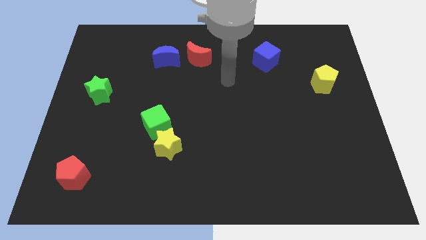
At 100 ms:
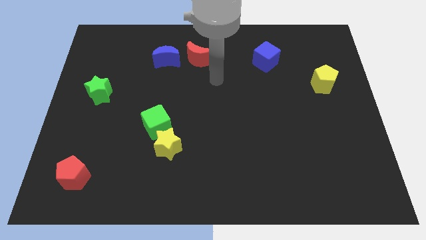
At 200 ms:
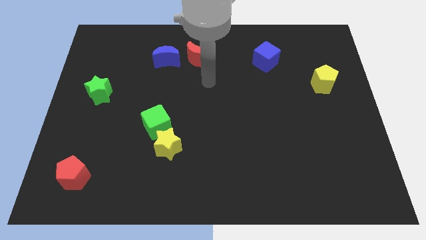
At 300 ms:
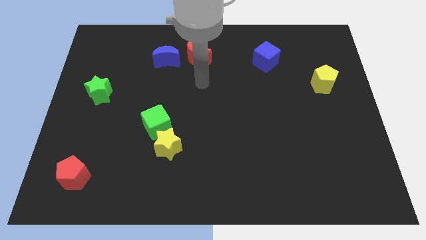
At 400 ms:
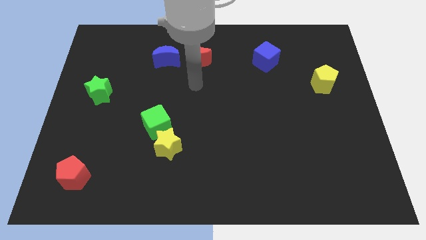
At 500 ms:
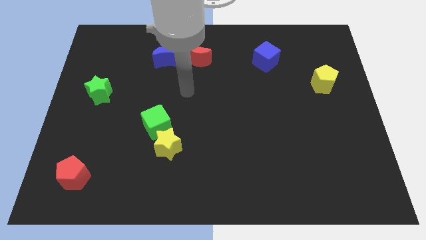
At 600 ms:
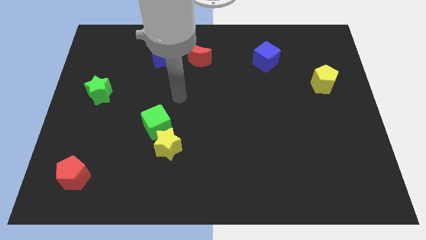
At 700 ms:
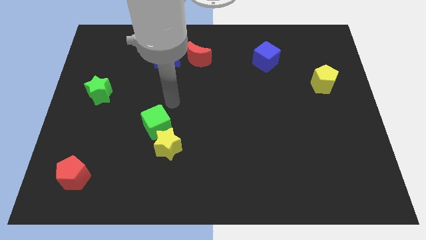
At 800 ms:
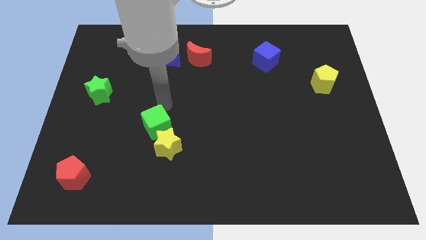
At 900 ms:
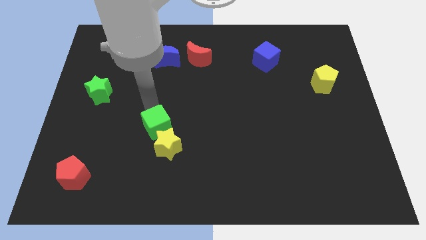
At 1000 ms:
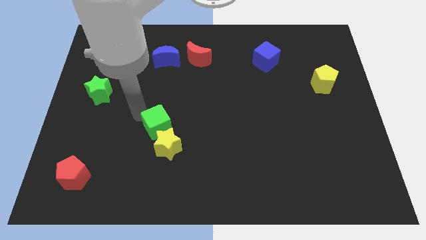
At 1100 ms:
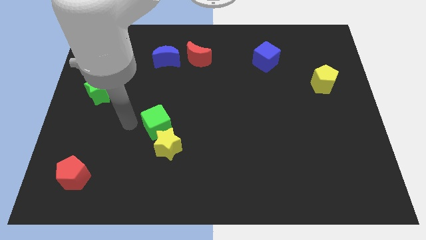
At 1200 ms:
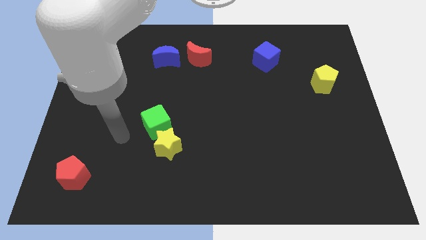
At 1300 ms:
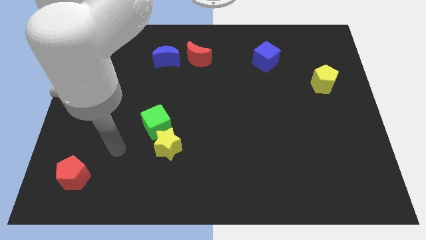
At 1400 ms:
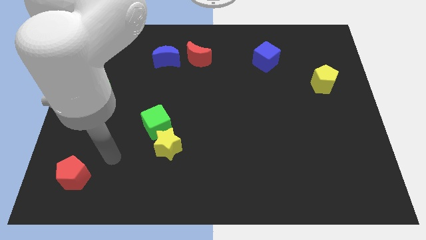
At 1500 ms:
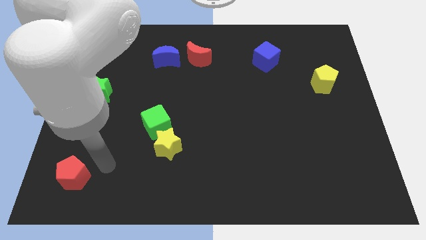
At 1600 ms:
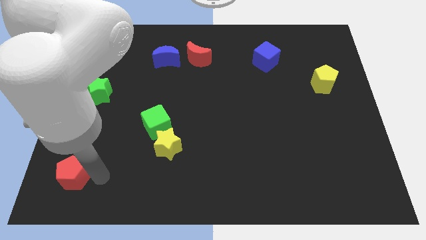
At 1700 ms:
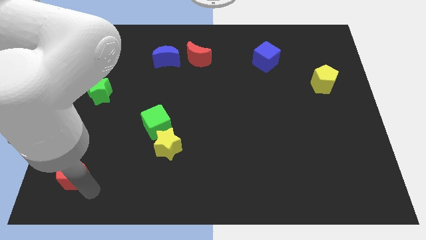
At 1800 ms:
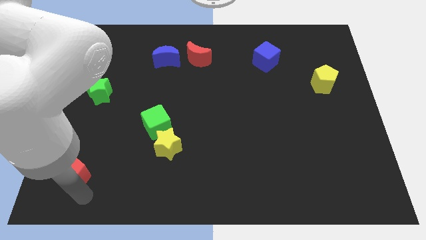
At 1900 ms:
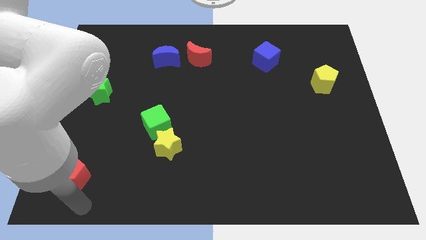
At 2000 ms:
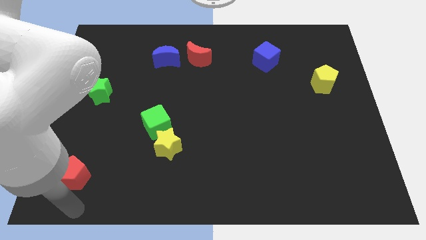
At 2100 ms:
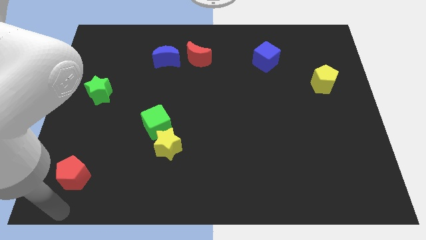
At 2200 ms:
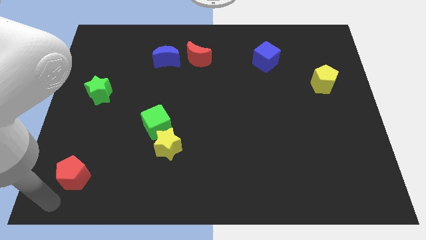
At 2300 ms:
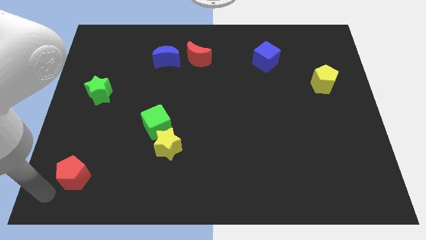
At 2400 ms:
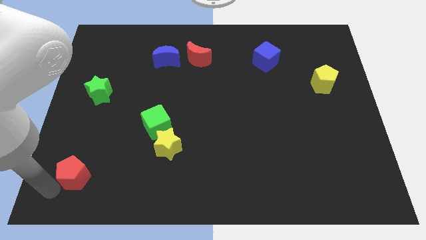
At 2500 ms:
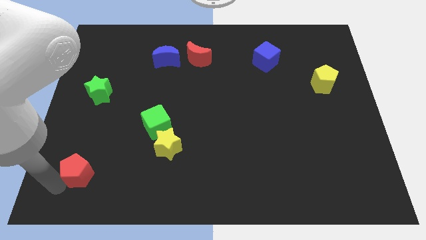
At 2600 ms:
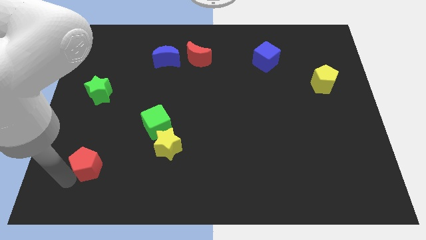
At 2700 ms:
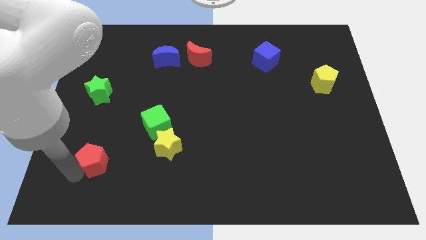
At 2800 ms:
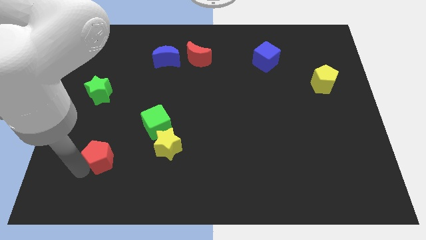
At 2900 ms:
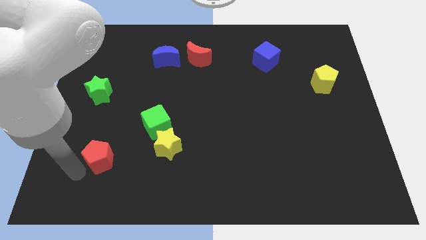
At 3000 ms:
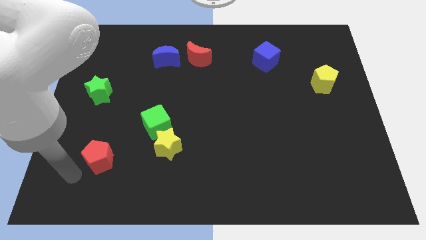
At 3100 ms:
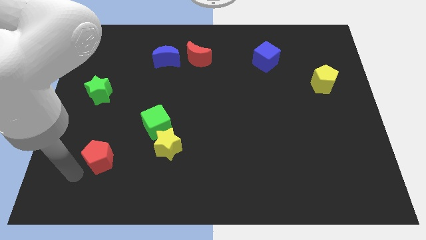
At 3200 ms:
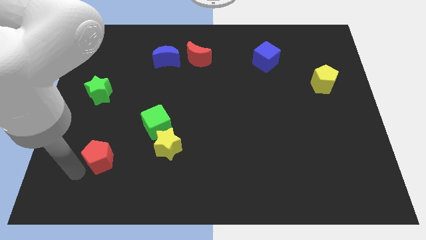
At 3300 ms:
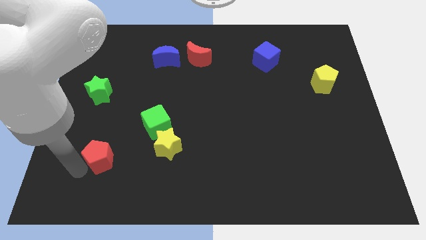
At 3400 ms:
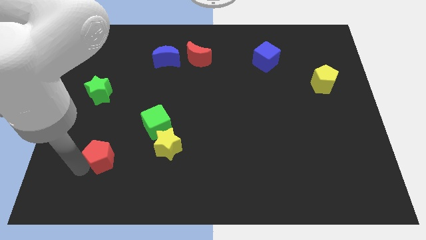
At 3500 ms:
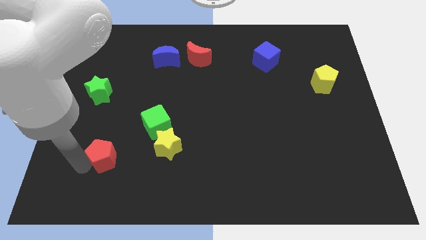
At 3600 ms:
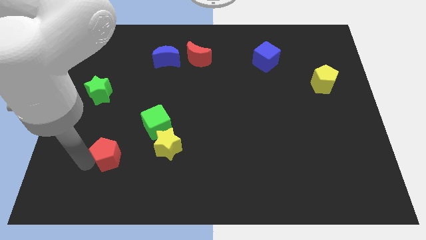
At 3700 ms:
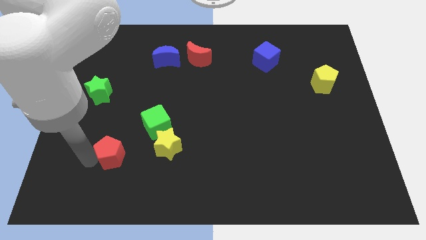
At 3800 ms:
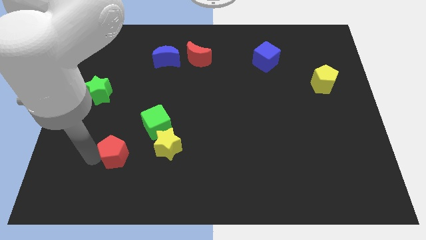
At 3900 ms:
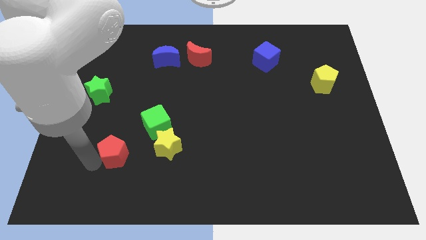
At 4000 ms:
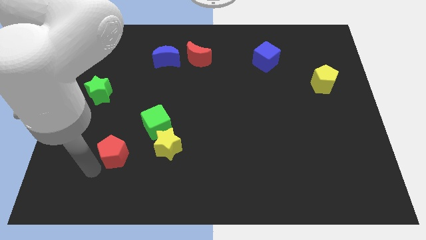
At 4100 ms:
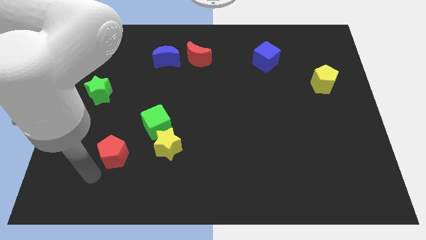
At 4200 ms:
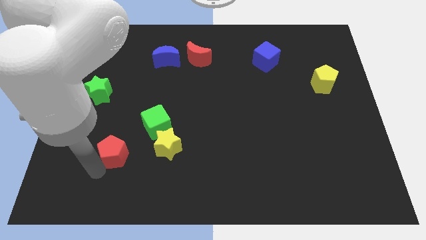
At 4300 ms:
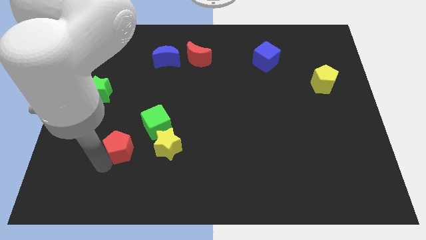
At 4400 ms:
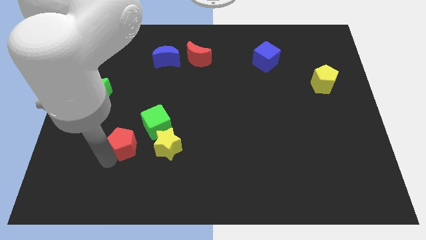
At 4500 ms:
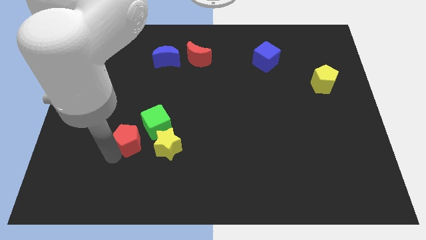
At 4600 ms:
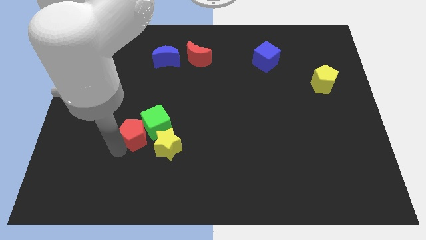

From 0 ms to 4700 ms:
slide the red pentagon next to the green cube

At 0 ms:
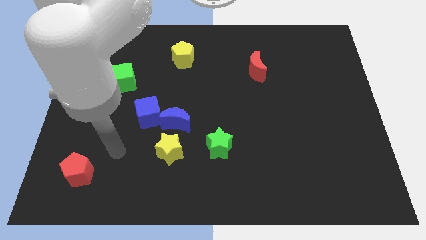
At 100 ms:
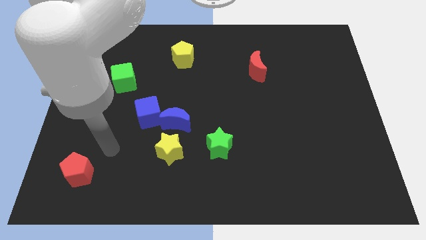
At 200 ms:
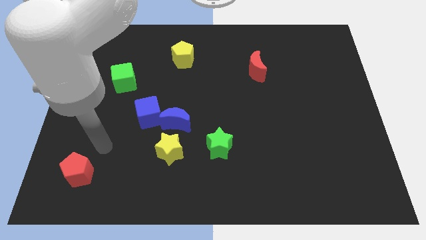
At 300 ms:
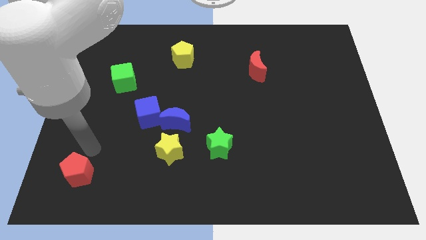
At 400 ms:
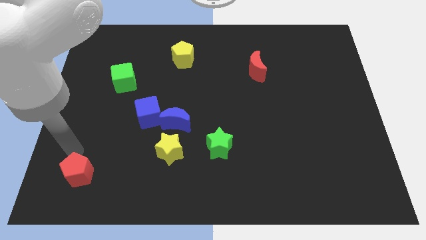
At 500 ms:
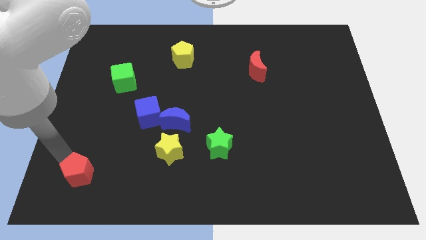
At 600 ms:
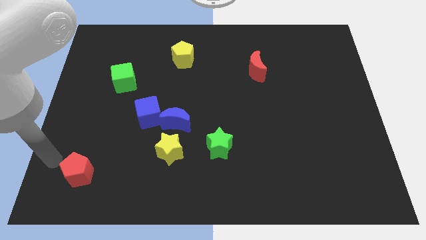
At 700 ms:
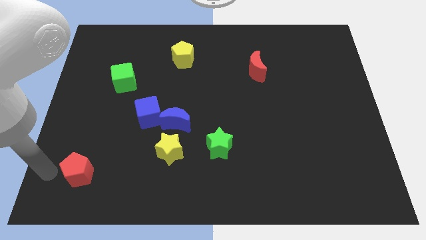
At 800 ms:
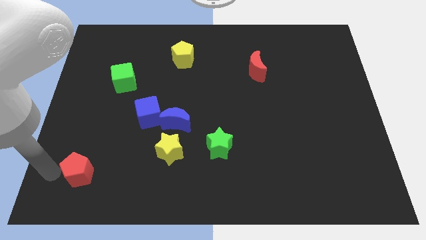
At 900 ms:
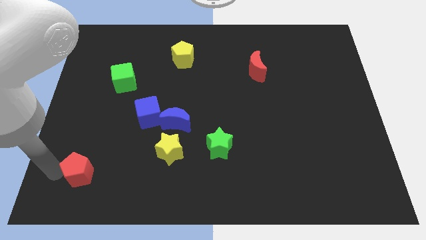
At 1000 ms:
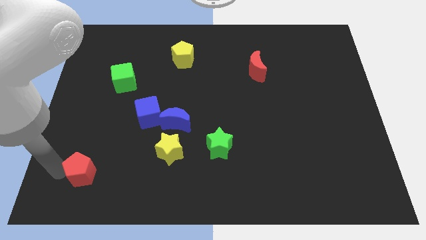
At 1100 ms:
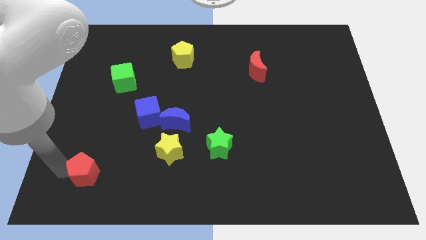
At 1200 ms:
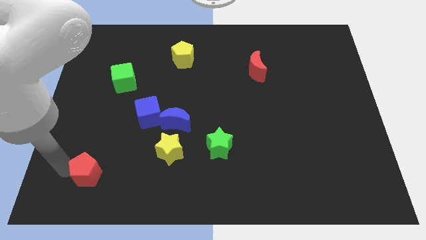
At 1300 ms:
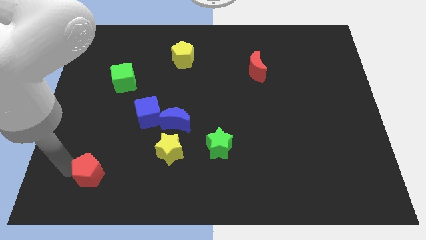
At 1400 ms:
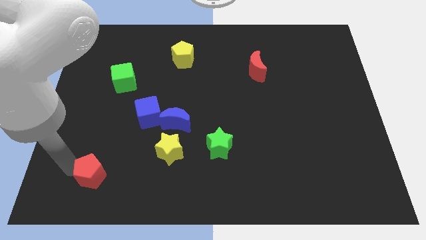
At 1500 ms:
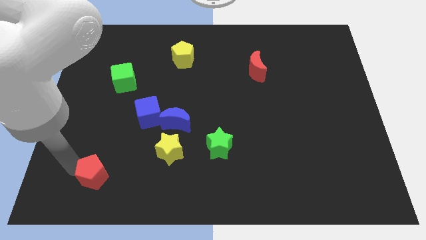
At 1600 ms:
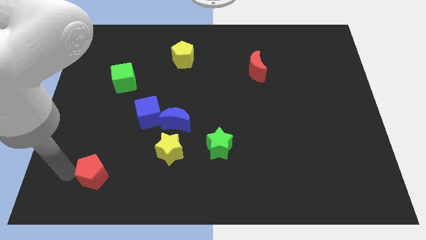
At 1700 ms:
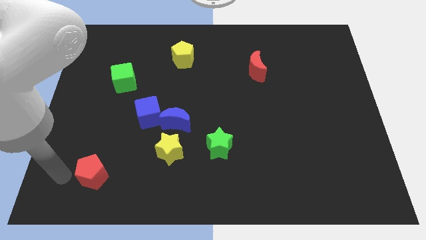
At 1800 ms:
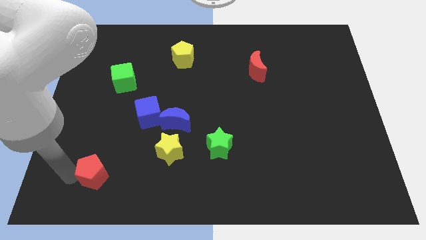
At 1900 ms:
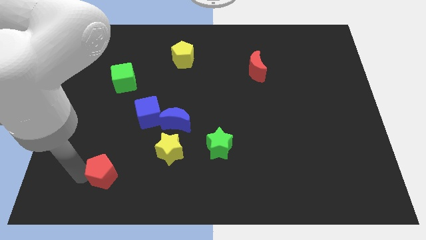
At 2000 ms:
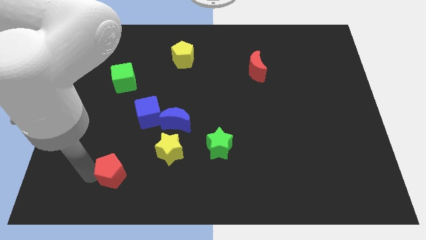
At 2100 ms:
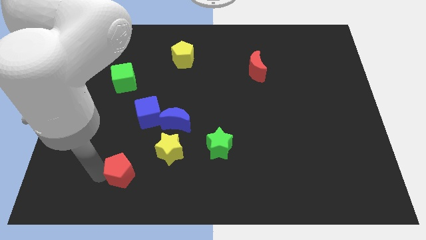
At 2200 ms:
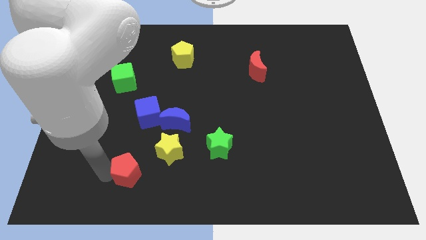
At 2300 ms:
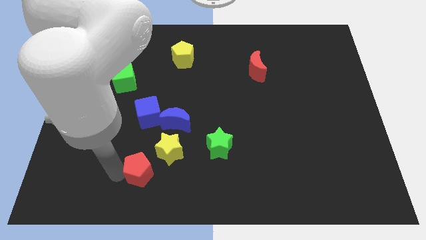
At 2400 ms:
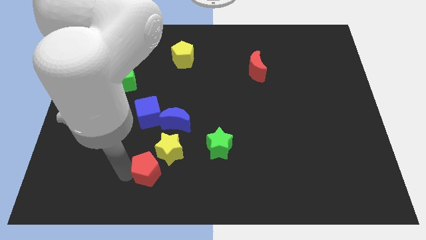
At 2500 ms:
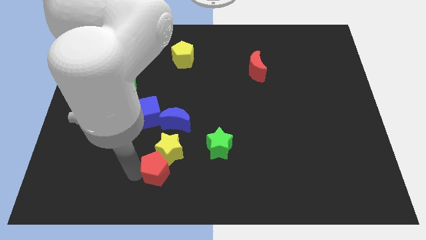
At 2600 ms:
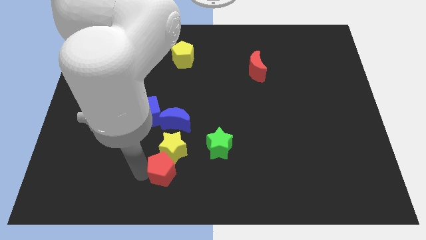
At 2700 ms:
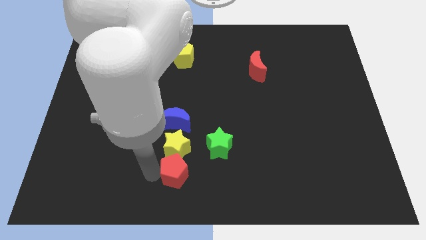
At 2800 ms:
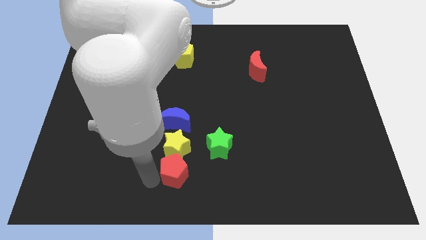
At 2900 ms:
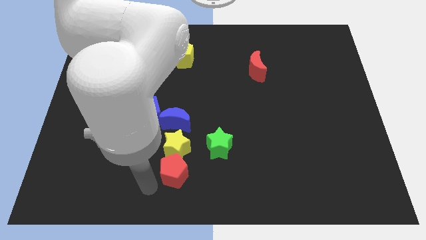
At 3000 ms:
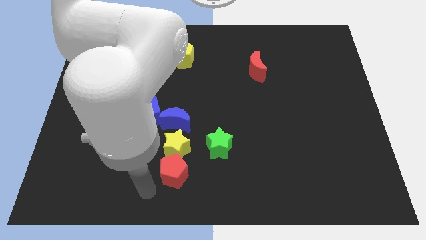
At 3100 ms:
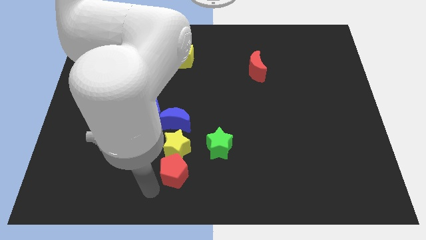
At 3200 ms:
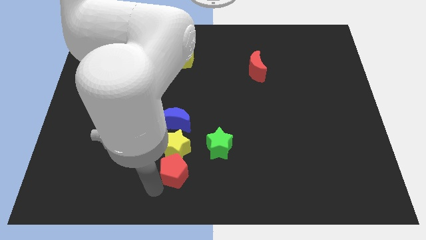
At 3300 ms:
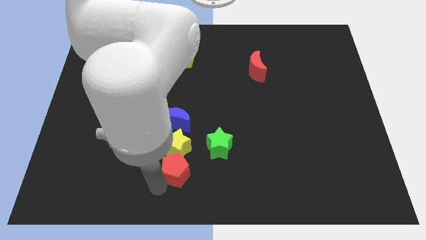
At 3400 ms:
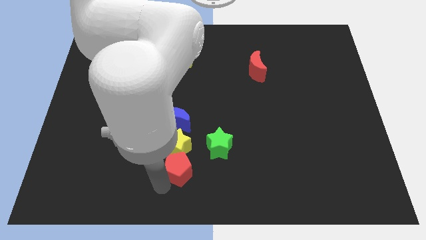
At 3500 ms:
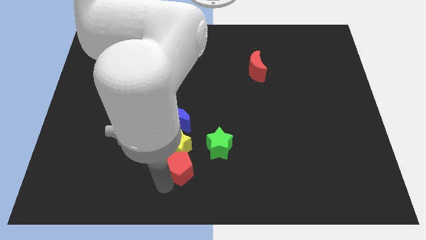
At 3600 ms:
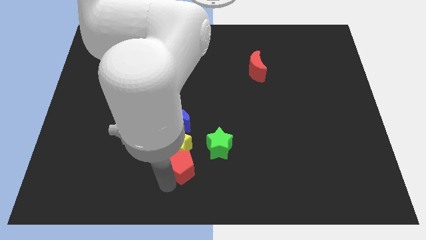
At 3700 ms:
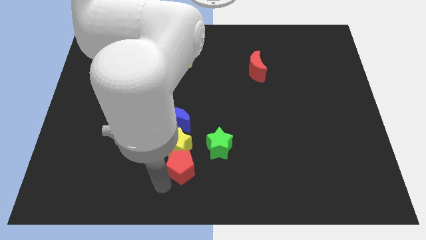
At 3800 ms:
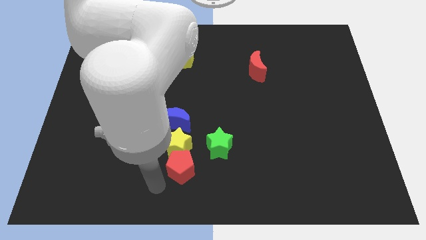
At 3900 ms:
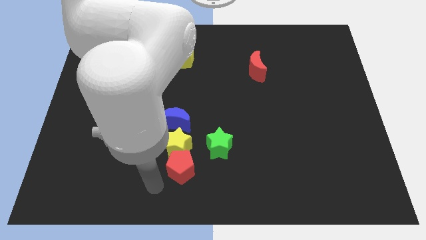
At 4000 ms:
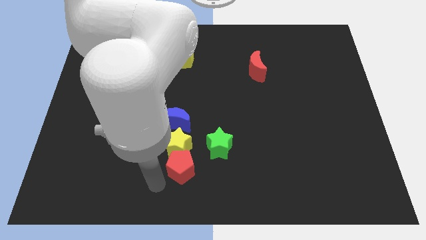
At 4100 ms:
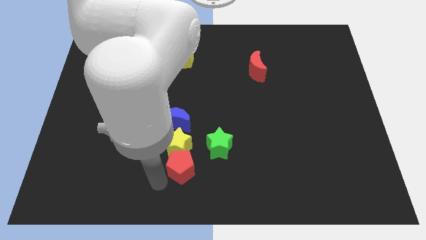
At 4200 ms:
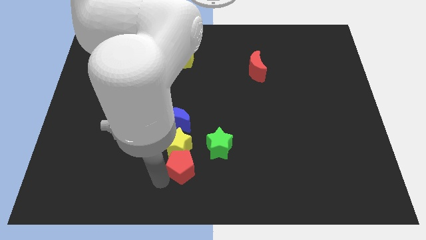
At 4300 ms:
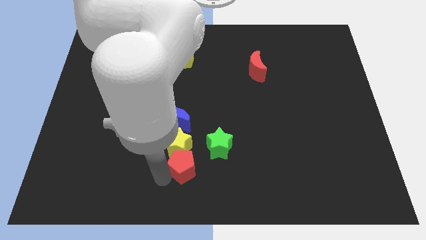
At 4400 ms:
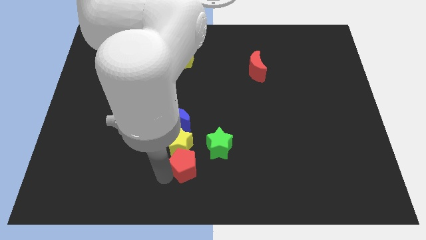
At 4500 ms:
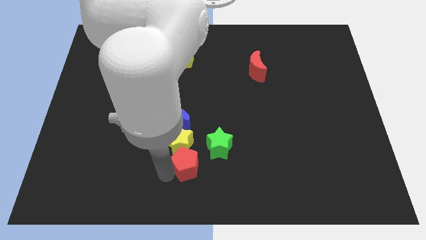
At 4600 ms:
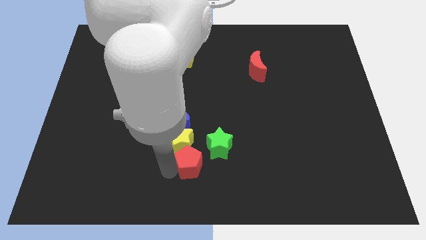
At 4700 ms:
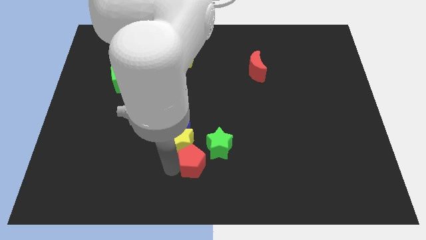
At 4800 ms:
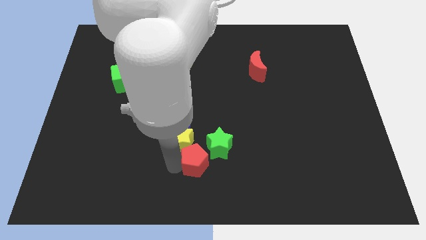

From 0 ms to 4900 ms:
put the red pentagon towards the green star
